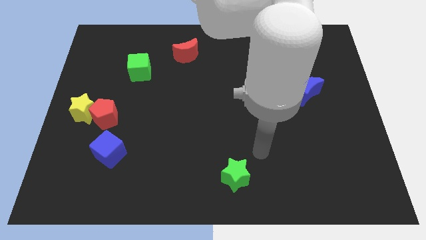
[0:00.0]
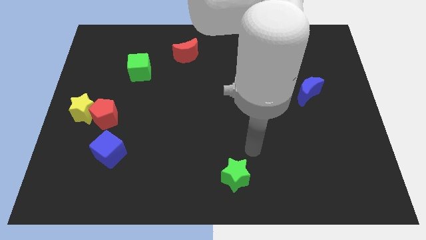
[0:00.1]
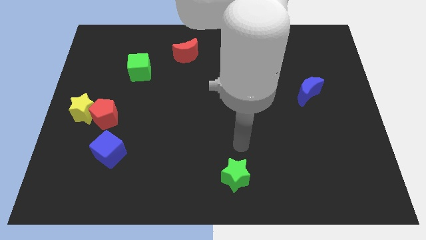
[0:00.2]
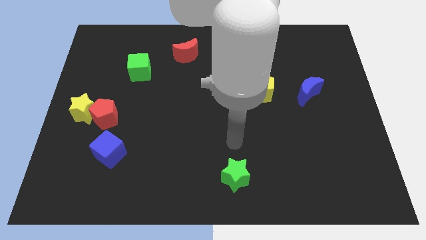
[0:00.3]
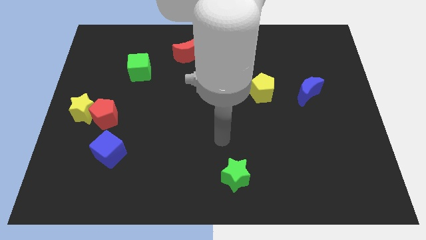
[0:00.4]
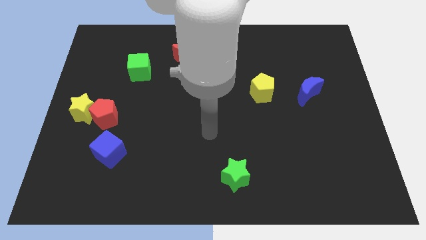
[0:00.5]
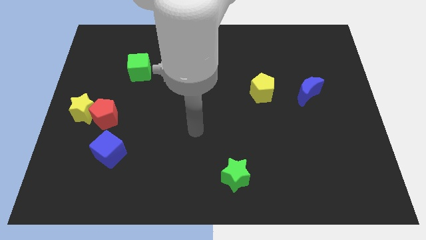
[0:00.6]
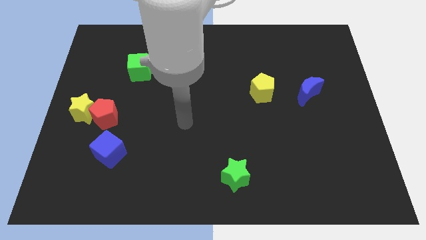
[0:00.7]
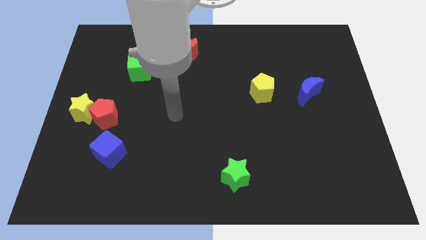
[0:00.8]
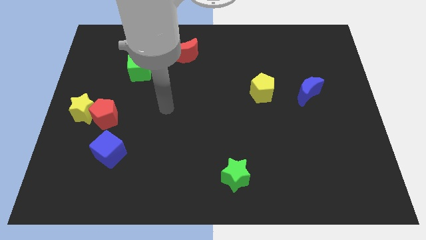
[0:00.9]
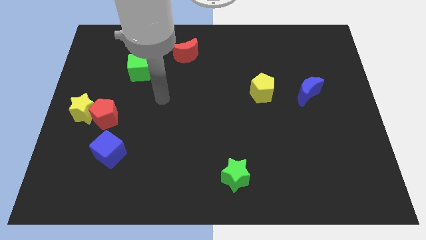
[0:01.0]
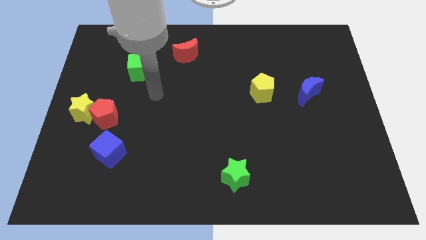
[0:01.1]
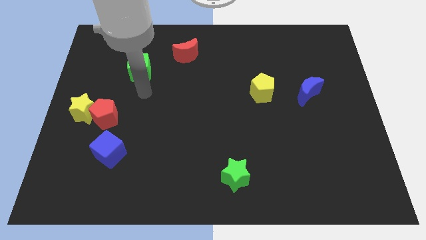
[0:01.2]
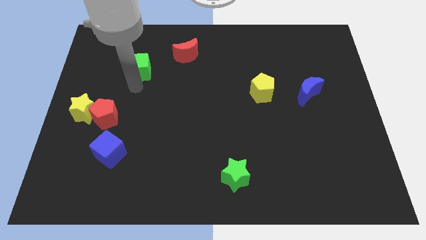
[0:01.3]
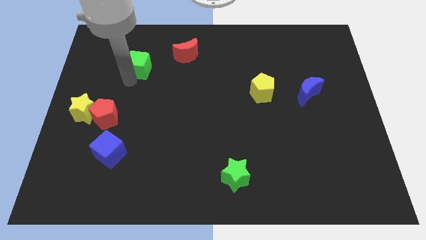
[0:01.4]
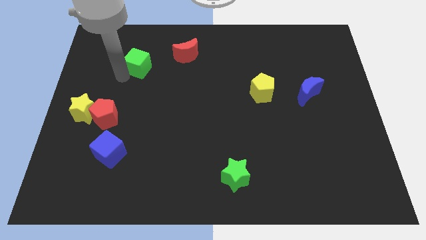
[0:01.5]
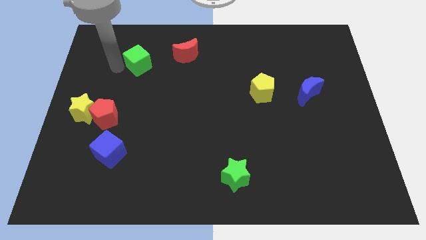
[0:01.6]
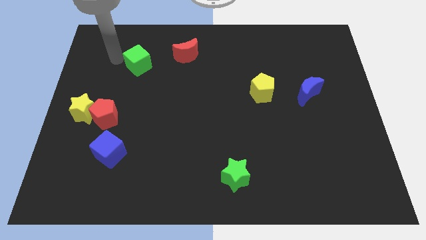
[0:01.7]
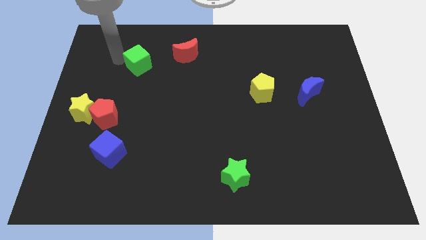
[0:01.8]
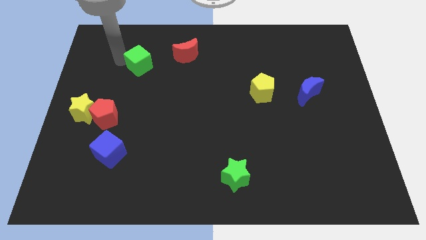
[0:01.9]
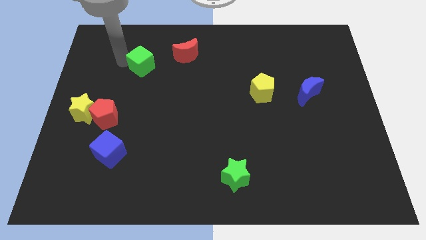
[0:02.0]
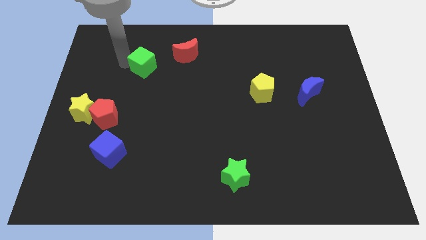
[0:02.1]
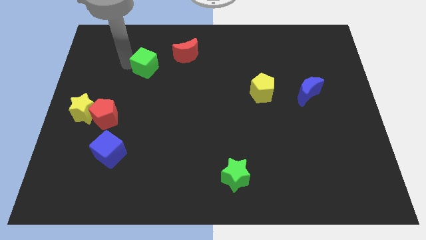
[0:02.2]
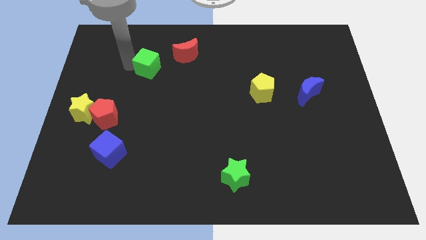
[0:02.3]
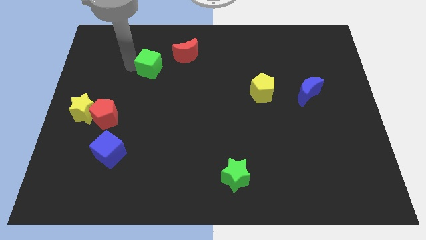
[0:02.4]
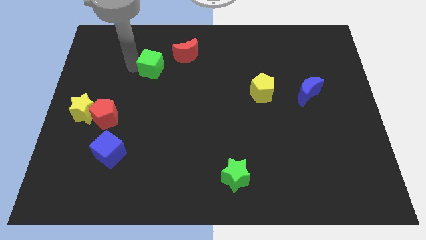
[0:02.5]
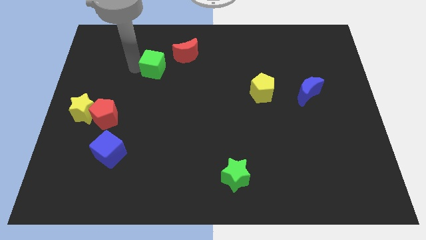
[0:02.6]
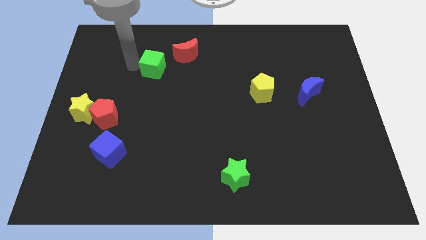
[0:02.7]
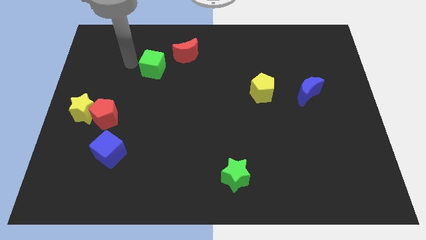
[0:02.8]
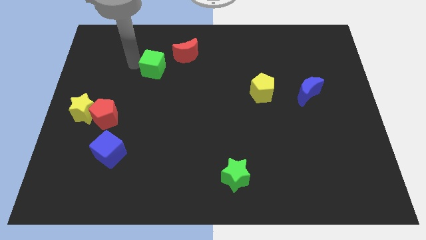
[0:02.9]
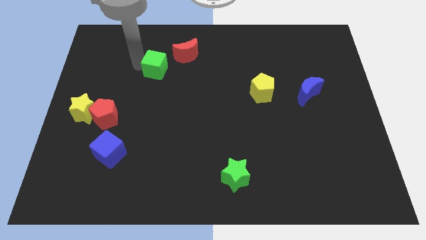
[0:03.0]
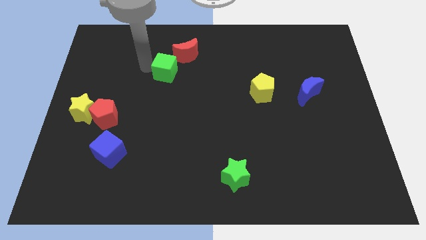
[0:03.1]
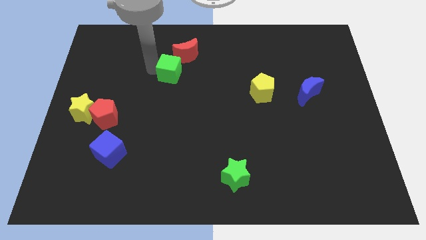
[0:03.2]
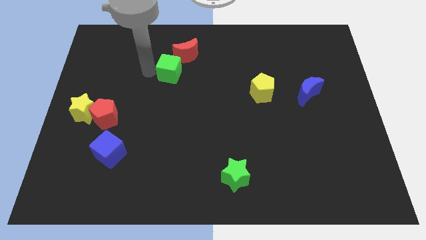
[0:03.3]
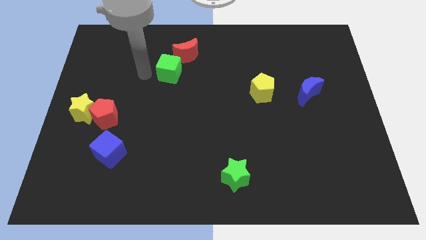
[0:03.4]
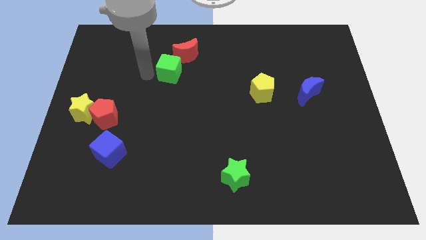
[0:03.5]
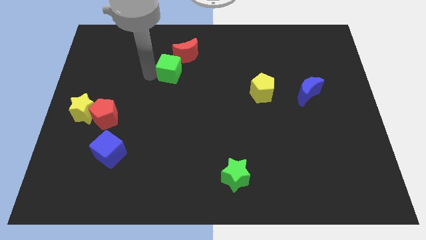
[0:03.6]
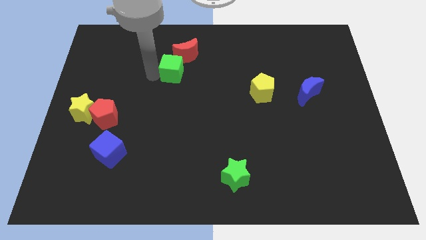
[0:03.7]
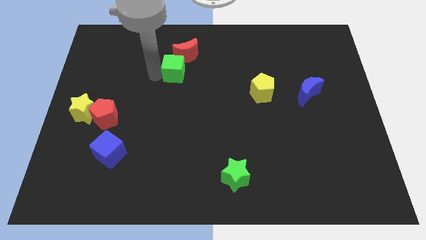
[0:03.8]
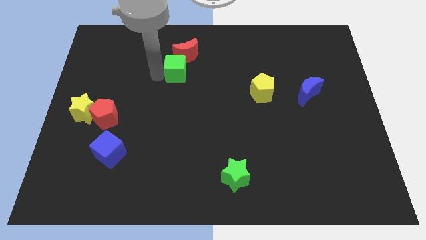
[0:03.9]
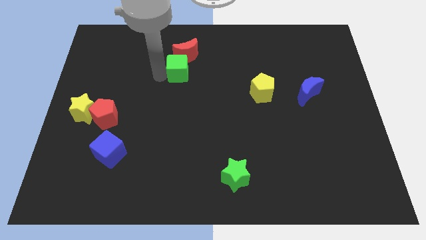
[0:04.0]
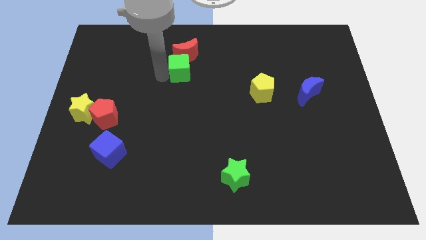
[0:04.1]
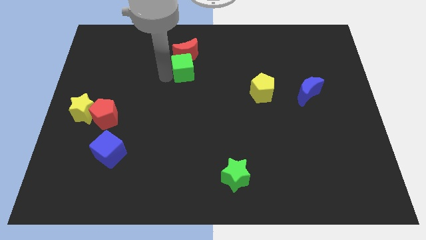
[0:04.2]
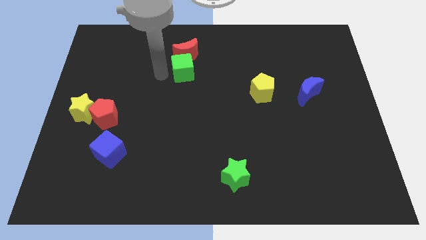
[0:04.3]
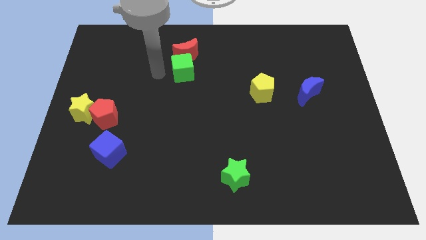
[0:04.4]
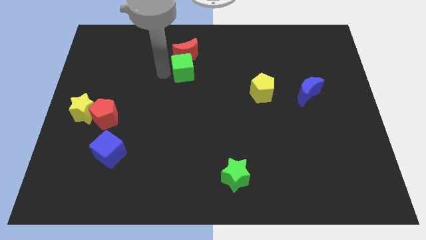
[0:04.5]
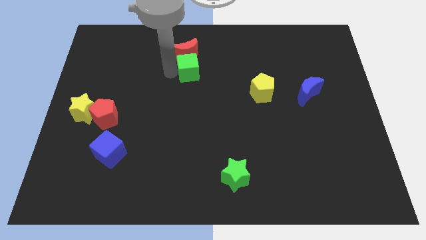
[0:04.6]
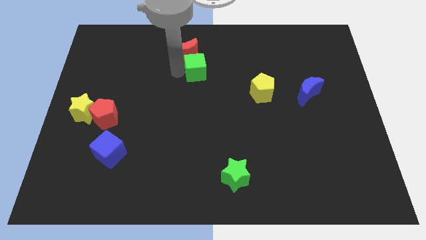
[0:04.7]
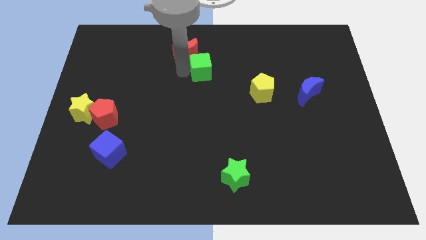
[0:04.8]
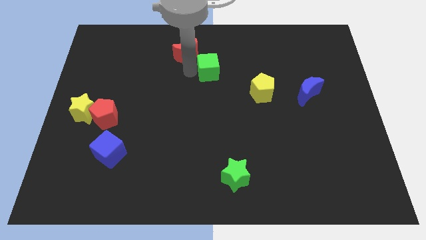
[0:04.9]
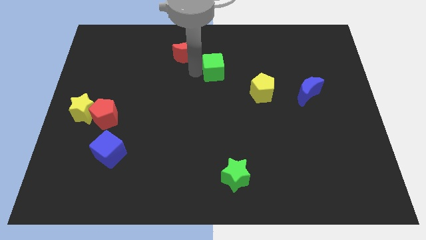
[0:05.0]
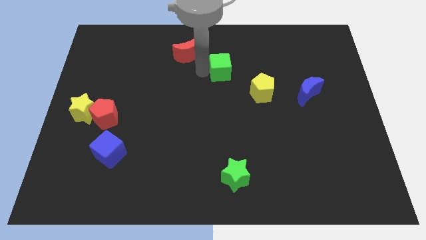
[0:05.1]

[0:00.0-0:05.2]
move the green cube to the right

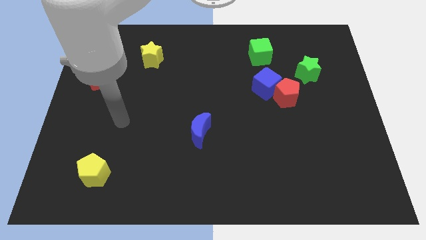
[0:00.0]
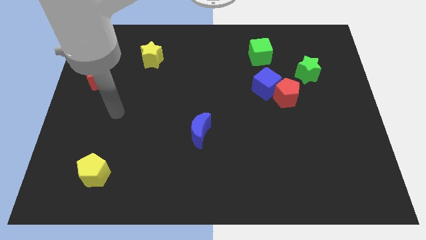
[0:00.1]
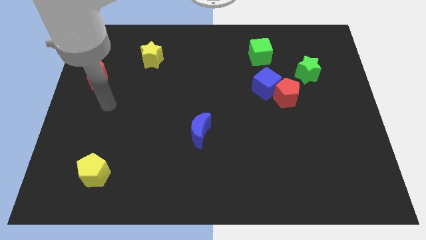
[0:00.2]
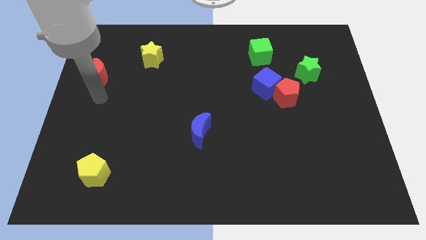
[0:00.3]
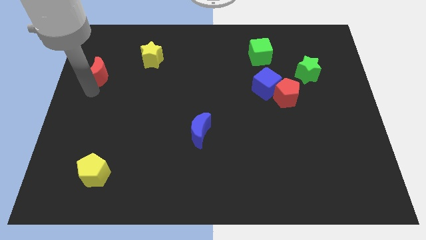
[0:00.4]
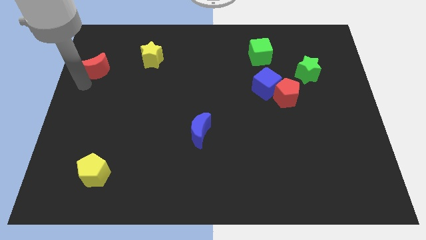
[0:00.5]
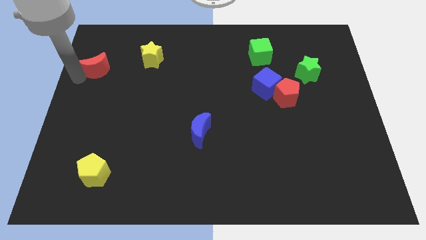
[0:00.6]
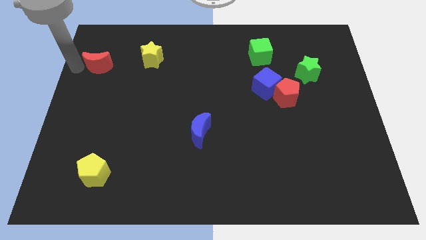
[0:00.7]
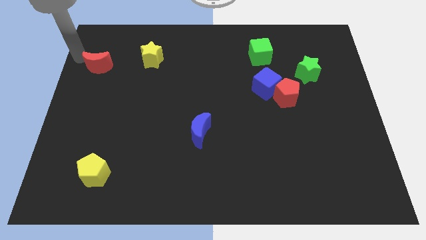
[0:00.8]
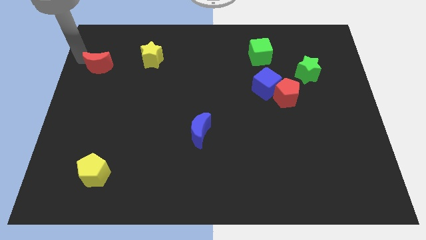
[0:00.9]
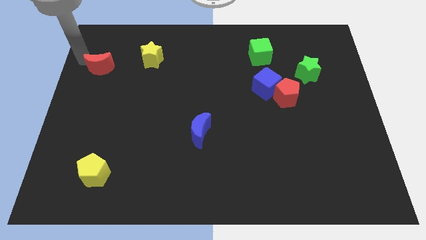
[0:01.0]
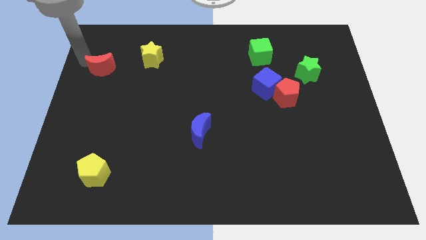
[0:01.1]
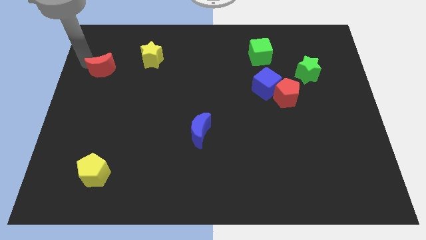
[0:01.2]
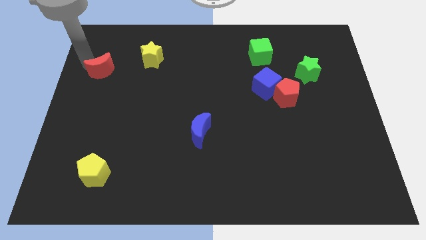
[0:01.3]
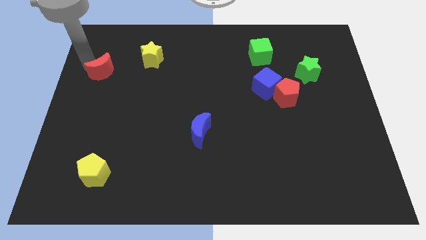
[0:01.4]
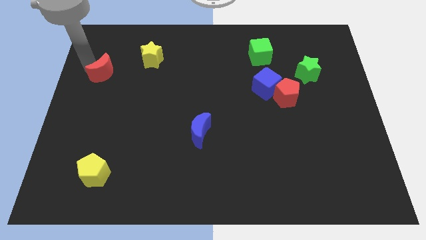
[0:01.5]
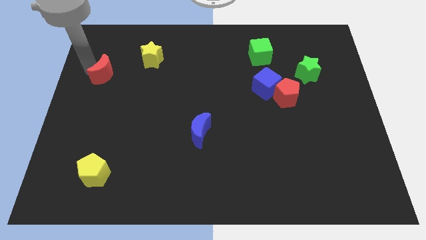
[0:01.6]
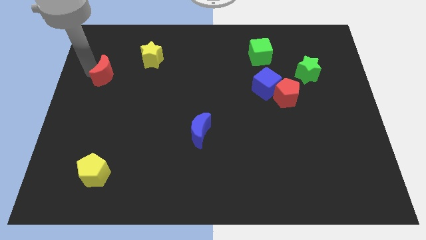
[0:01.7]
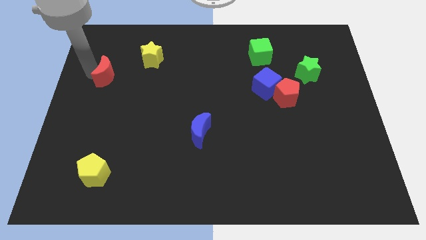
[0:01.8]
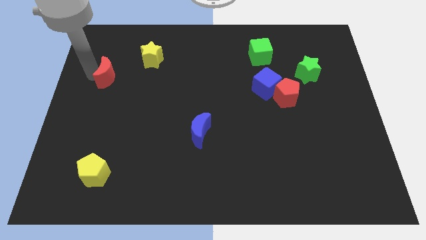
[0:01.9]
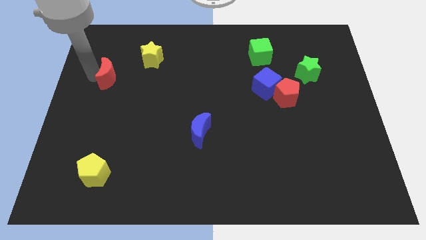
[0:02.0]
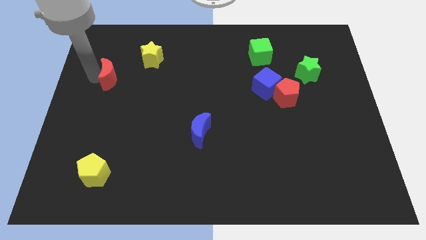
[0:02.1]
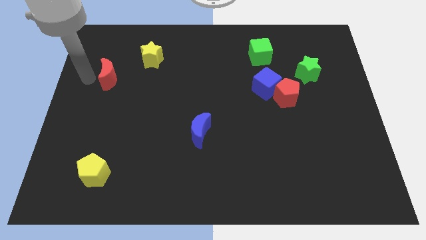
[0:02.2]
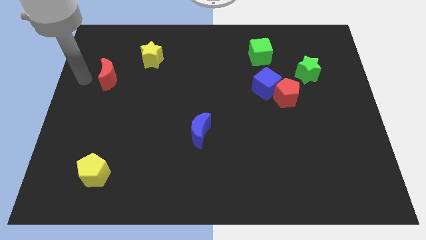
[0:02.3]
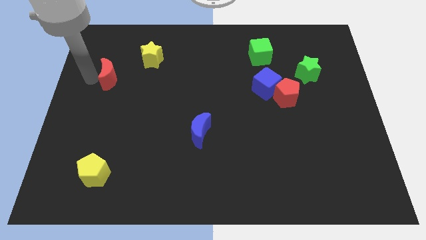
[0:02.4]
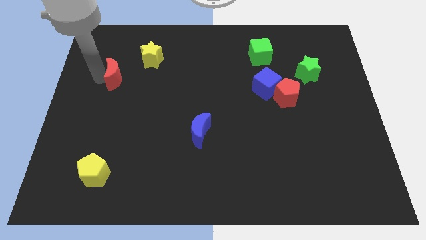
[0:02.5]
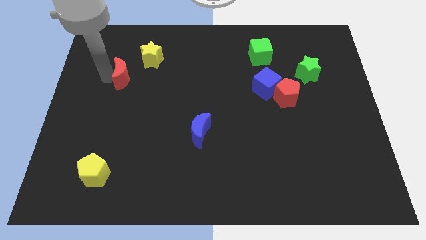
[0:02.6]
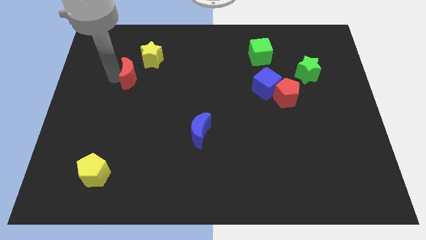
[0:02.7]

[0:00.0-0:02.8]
slightly slide the red moon to the right
